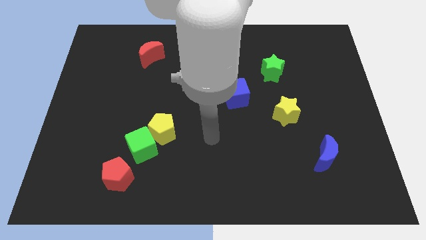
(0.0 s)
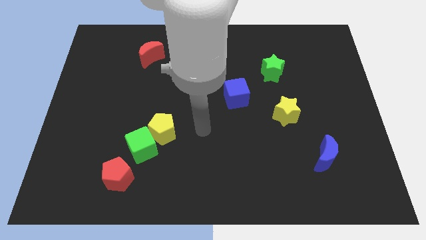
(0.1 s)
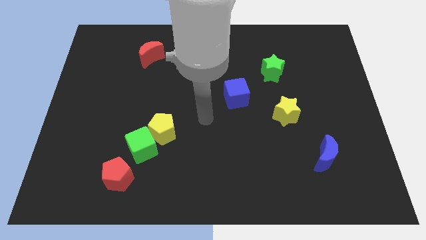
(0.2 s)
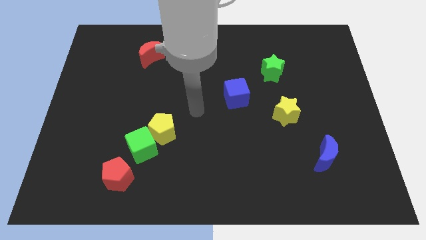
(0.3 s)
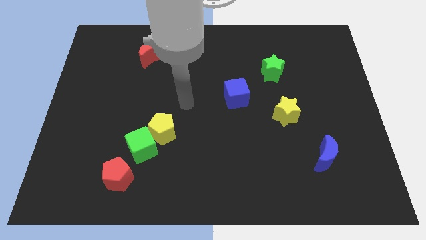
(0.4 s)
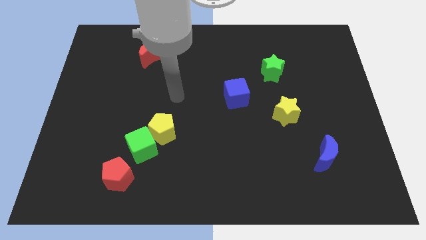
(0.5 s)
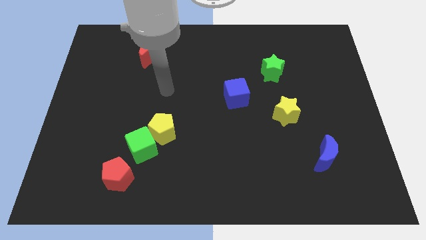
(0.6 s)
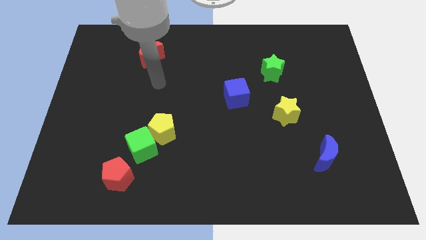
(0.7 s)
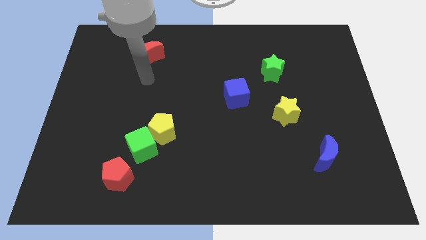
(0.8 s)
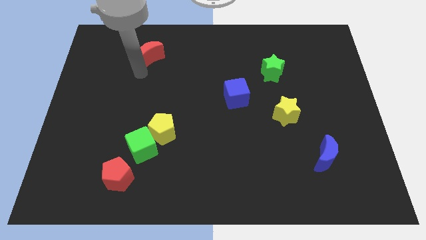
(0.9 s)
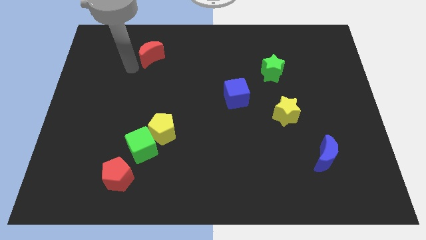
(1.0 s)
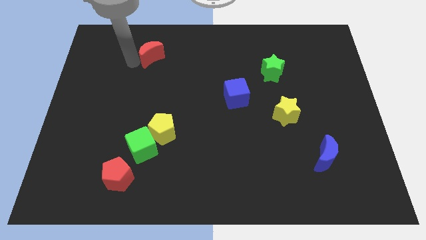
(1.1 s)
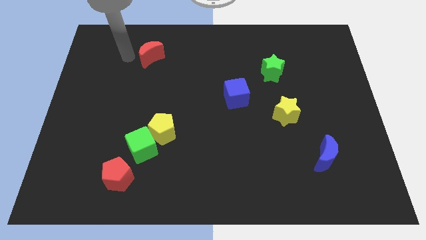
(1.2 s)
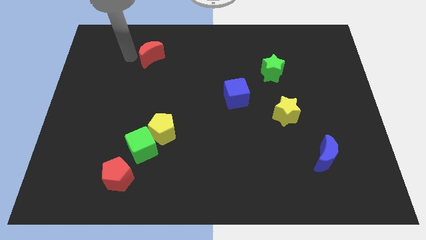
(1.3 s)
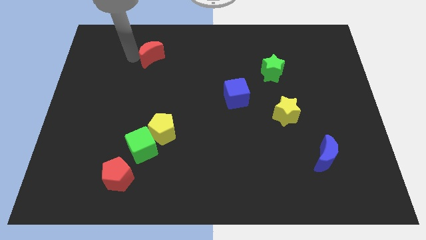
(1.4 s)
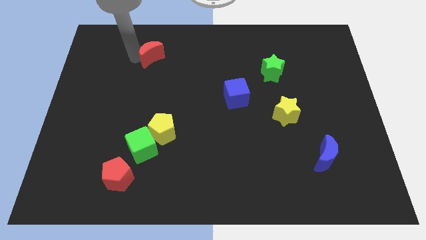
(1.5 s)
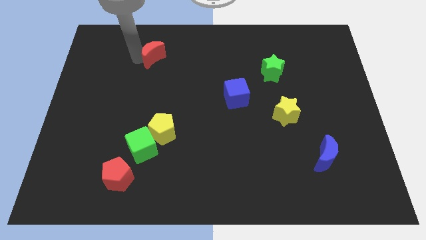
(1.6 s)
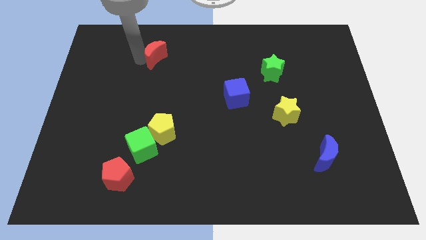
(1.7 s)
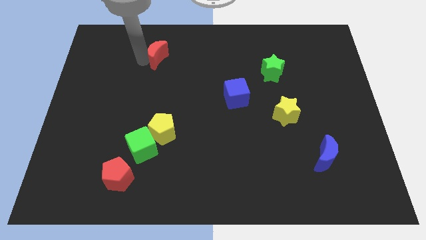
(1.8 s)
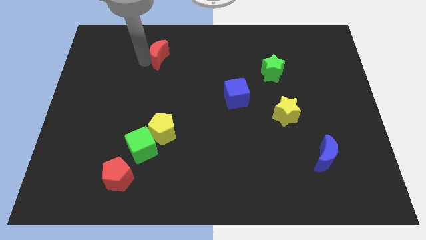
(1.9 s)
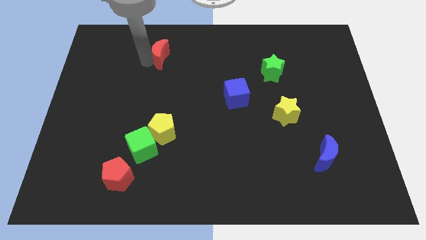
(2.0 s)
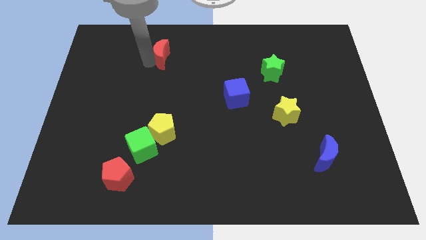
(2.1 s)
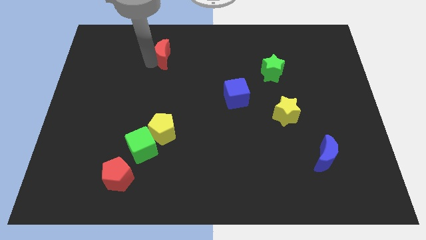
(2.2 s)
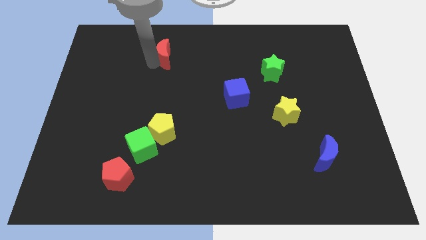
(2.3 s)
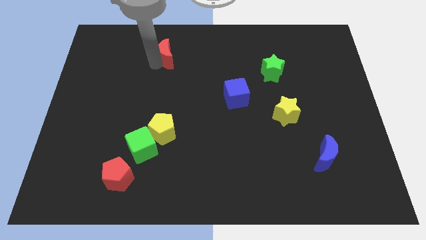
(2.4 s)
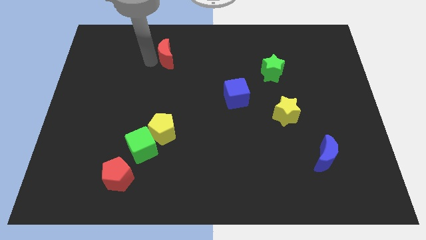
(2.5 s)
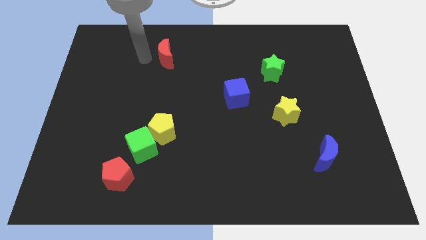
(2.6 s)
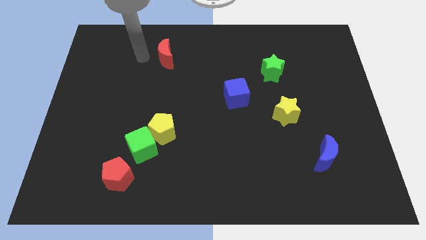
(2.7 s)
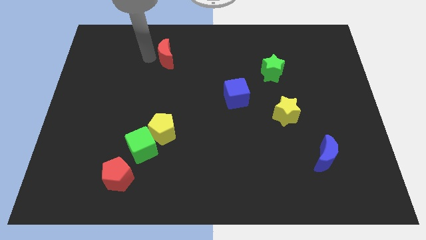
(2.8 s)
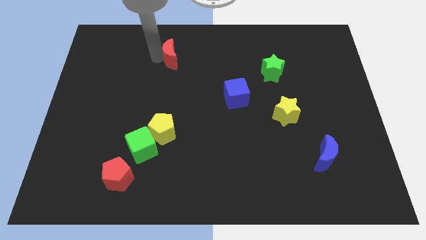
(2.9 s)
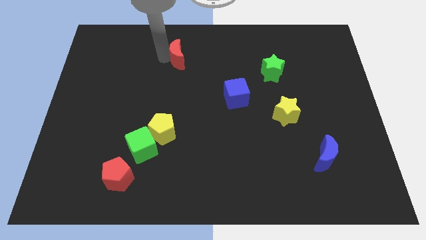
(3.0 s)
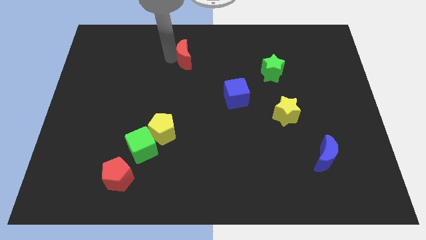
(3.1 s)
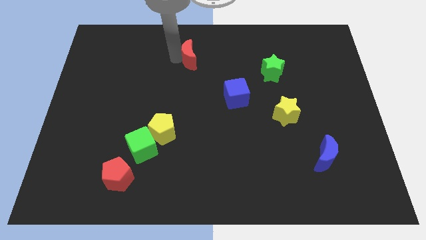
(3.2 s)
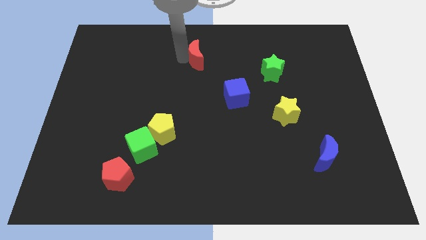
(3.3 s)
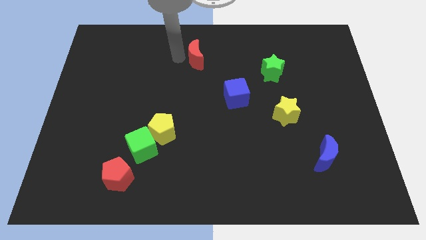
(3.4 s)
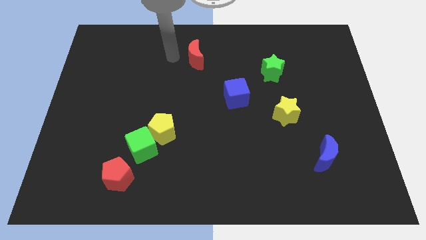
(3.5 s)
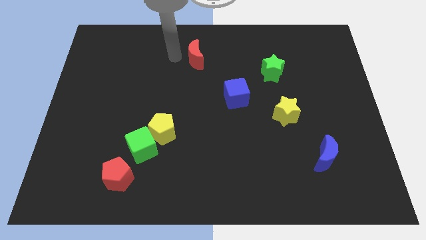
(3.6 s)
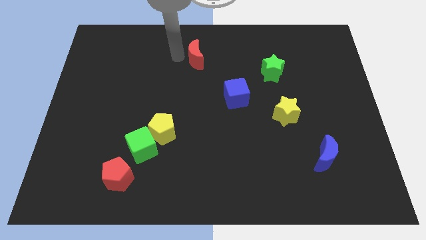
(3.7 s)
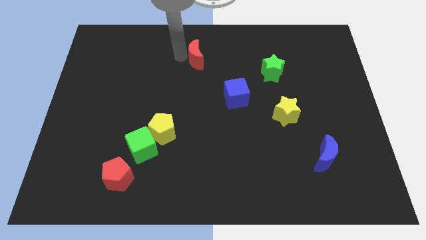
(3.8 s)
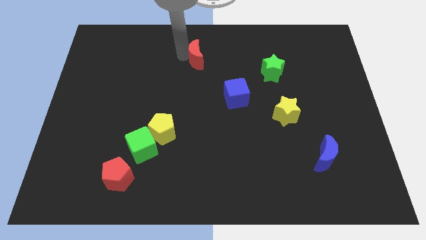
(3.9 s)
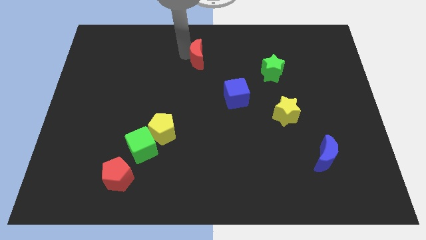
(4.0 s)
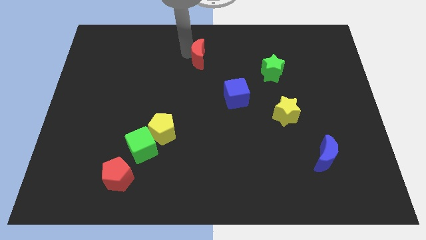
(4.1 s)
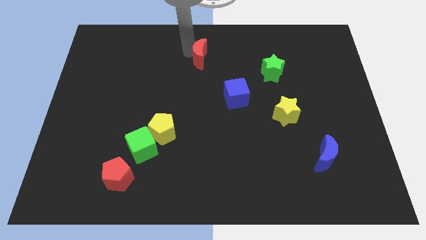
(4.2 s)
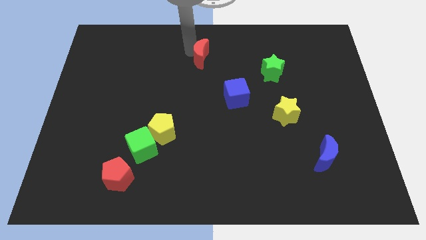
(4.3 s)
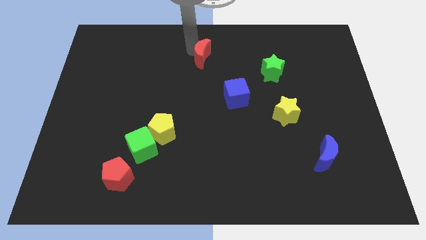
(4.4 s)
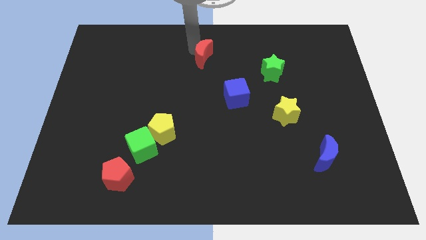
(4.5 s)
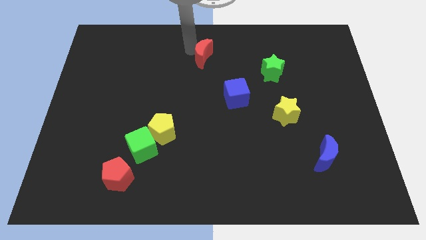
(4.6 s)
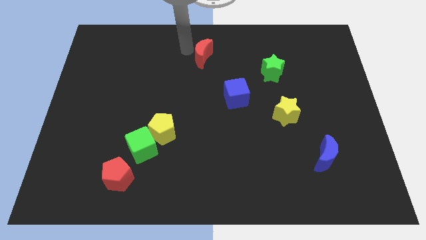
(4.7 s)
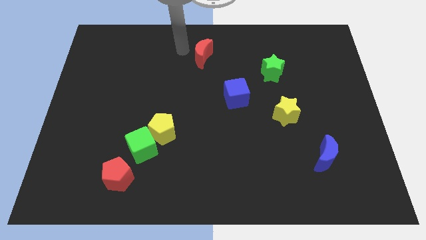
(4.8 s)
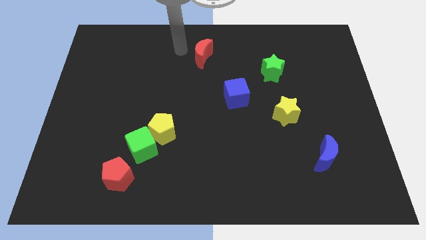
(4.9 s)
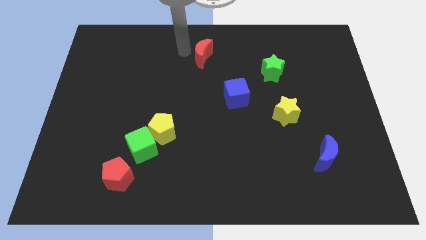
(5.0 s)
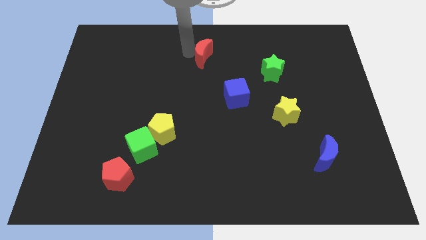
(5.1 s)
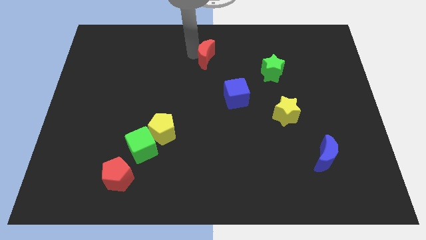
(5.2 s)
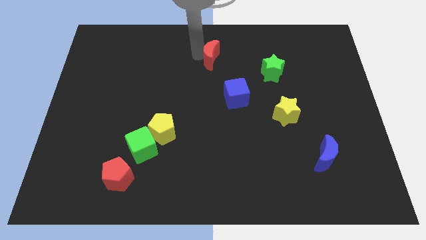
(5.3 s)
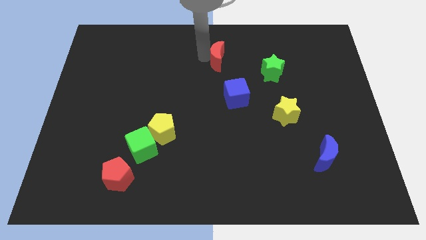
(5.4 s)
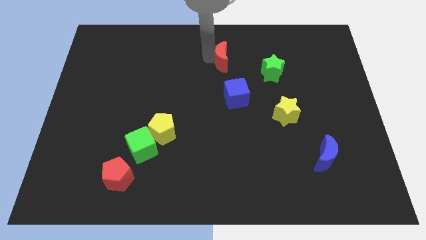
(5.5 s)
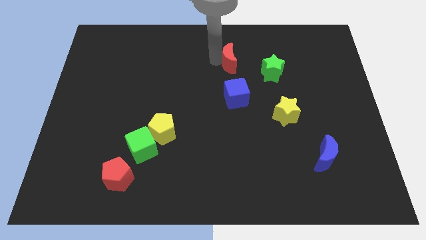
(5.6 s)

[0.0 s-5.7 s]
slide the red moon to the right

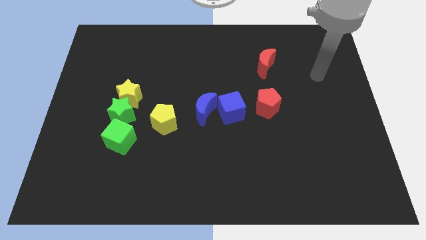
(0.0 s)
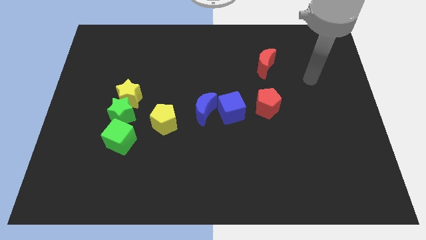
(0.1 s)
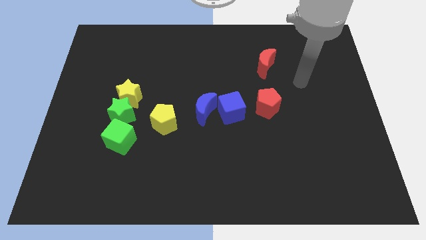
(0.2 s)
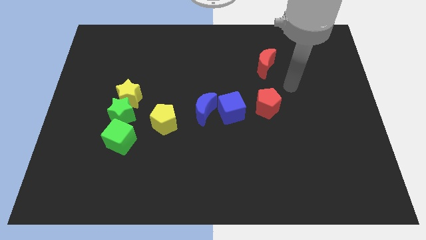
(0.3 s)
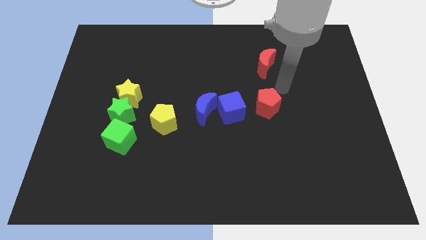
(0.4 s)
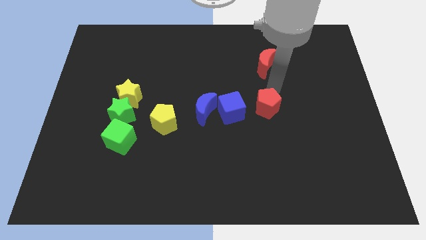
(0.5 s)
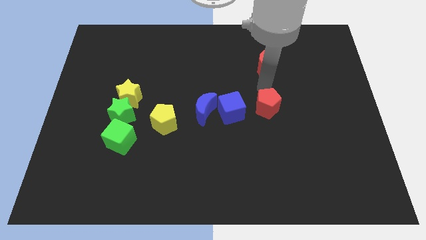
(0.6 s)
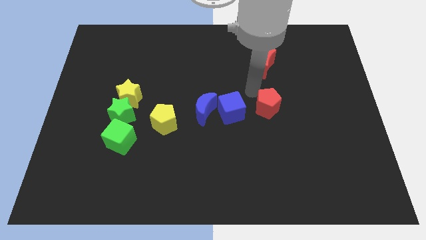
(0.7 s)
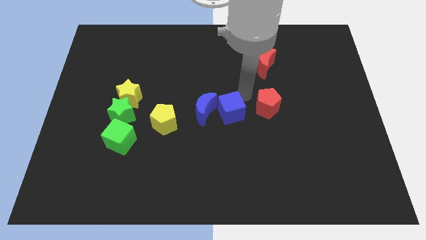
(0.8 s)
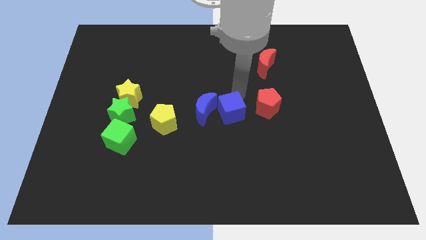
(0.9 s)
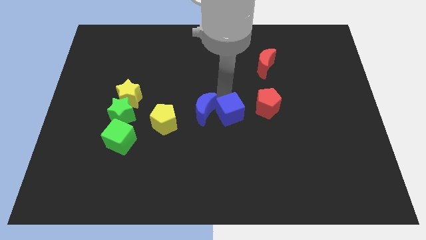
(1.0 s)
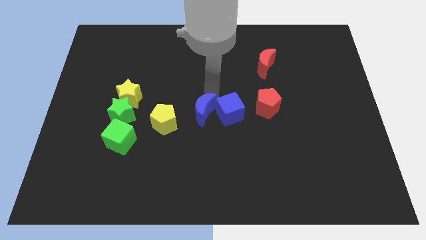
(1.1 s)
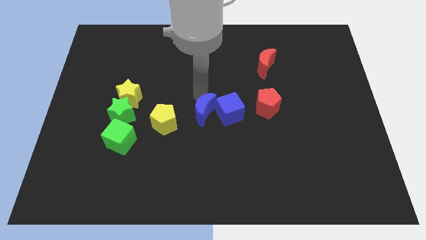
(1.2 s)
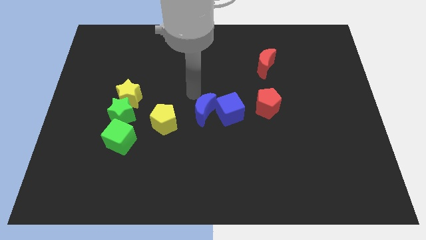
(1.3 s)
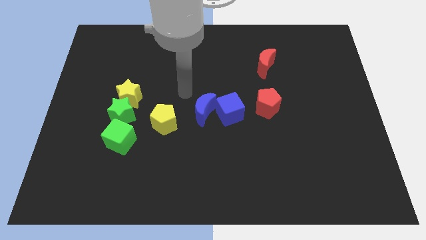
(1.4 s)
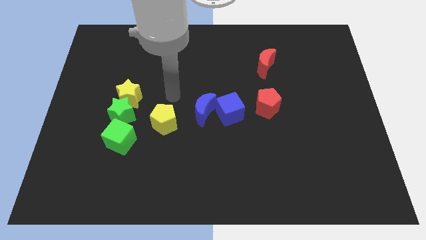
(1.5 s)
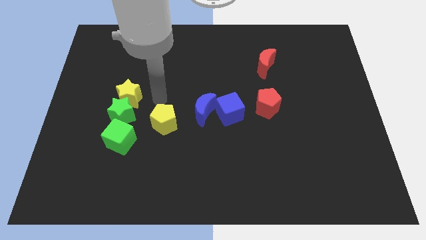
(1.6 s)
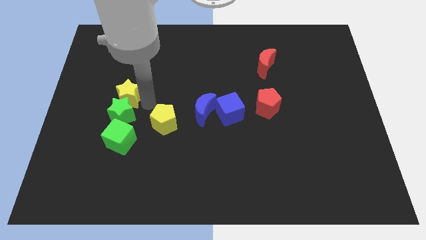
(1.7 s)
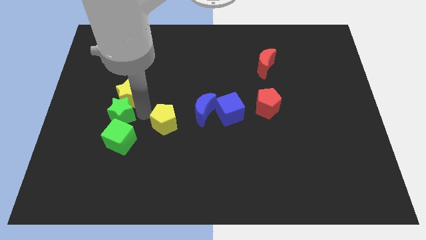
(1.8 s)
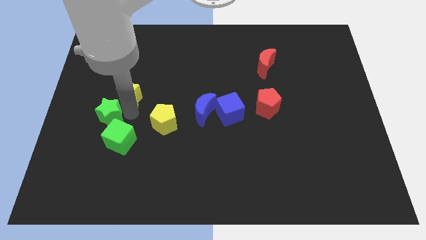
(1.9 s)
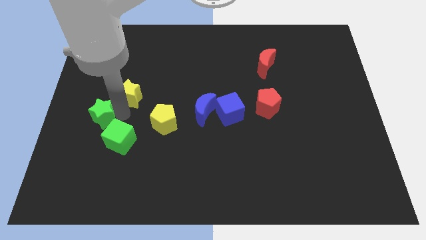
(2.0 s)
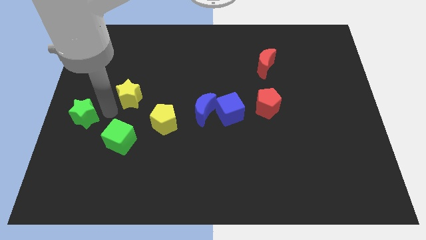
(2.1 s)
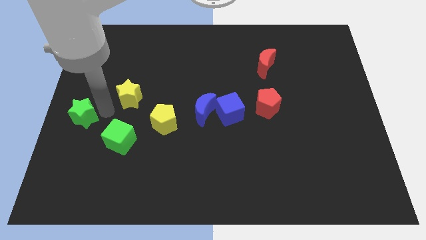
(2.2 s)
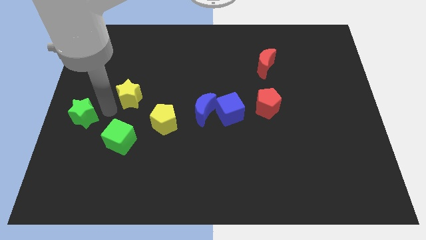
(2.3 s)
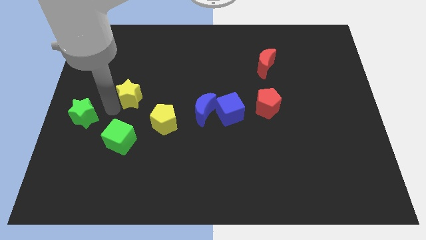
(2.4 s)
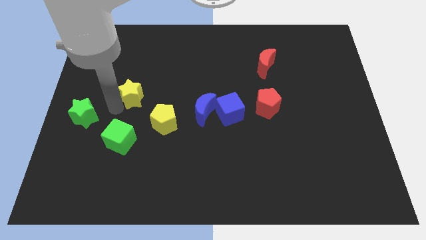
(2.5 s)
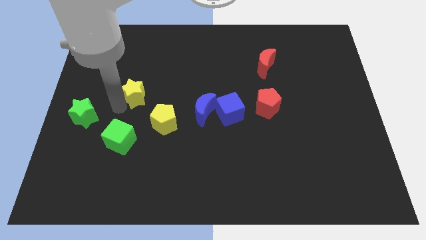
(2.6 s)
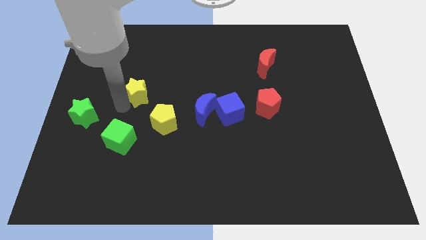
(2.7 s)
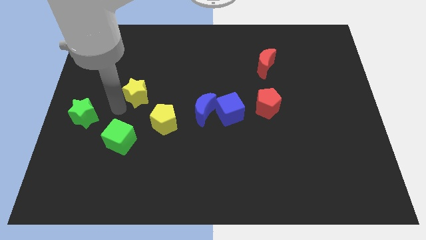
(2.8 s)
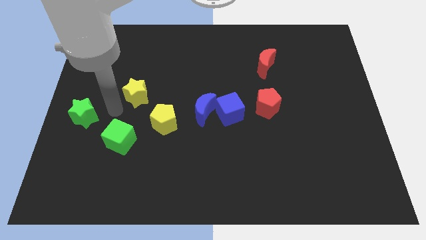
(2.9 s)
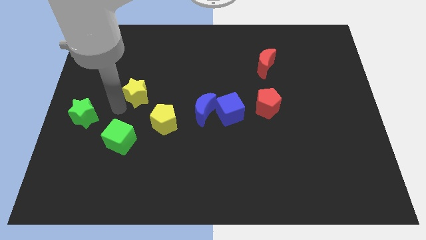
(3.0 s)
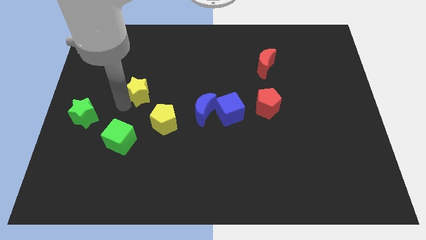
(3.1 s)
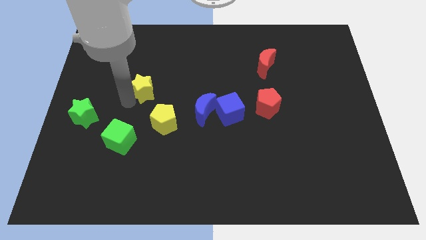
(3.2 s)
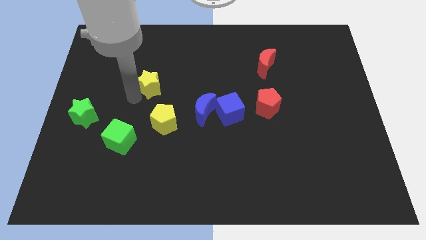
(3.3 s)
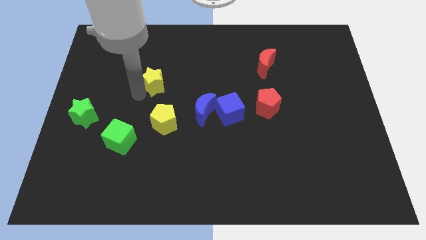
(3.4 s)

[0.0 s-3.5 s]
push the yellow star a bit upwards and right
